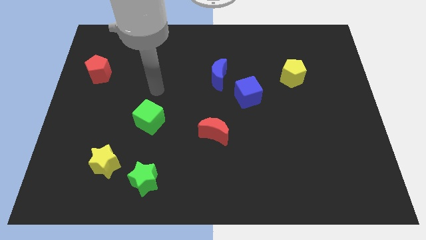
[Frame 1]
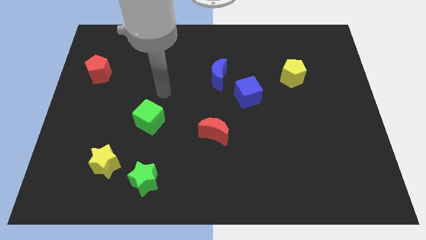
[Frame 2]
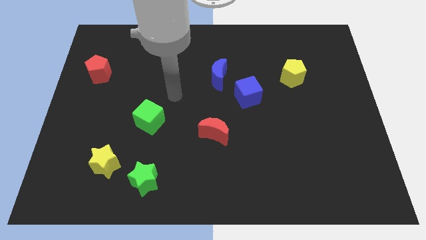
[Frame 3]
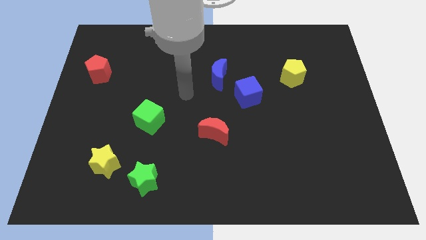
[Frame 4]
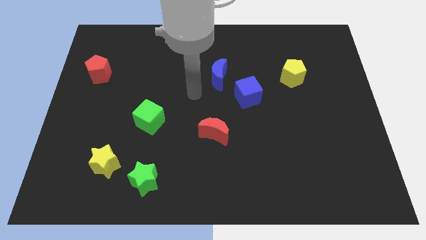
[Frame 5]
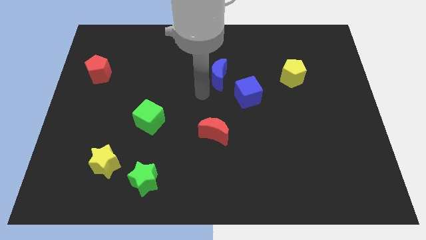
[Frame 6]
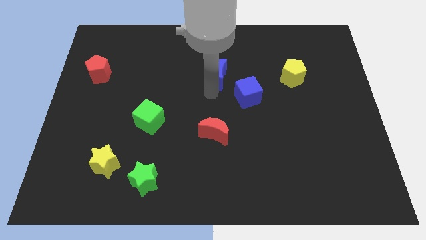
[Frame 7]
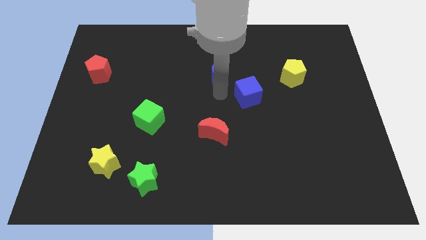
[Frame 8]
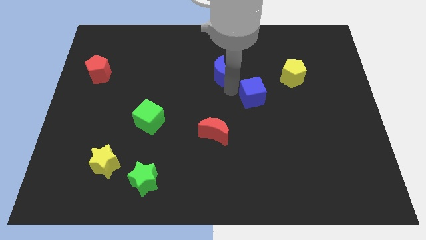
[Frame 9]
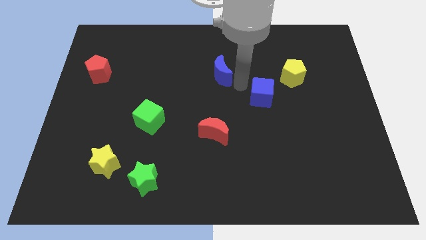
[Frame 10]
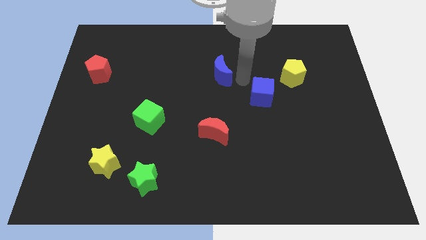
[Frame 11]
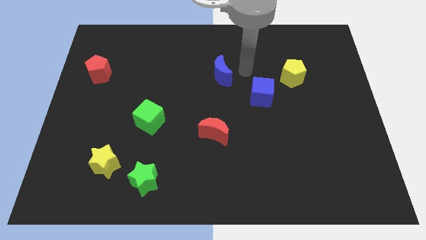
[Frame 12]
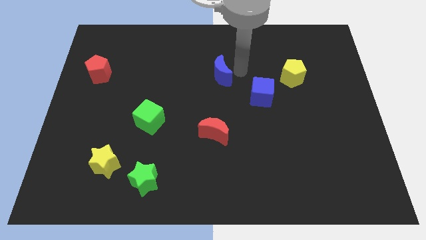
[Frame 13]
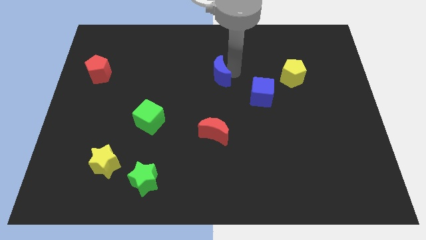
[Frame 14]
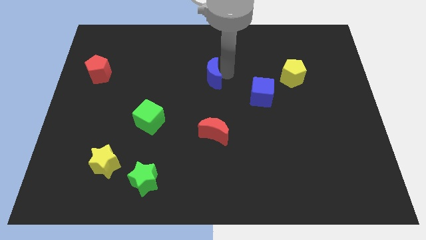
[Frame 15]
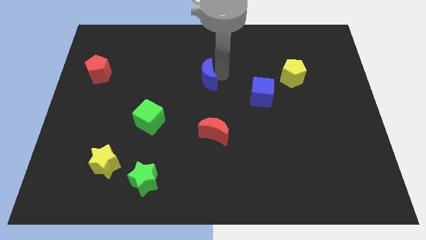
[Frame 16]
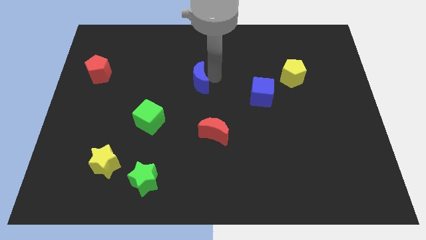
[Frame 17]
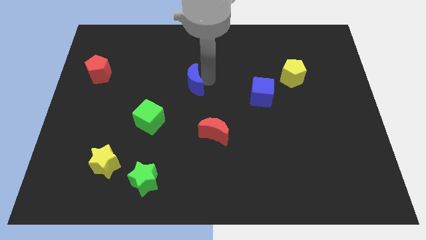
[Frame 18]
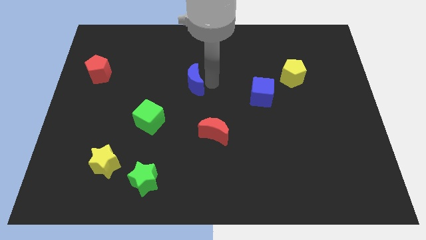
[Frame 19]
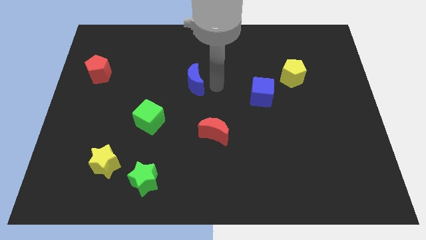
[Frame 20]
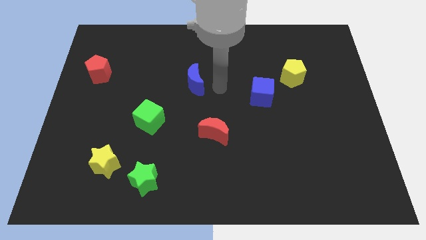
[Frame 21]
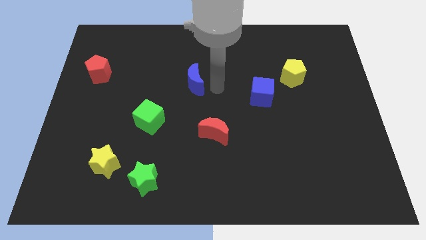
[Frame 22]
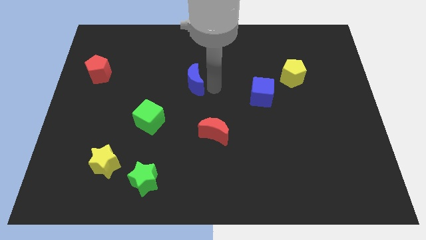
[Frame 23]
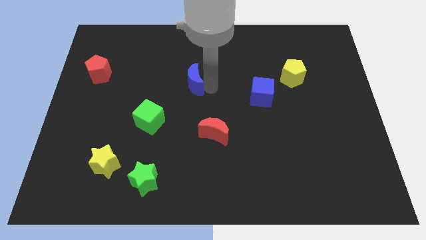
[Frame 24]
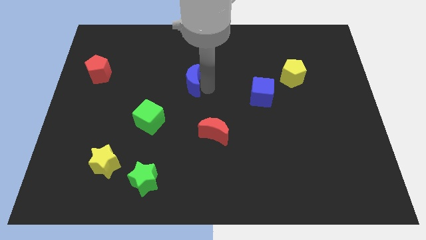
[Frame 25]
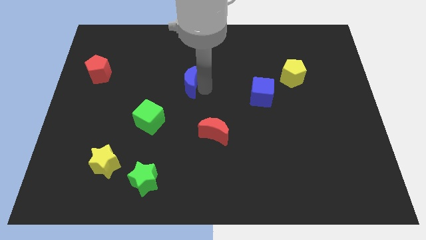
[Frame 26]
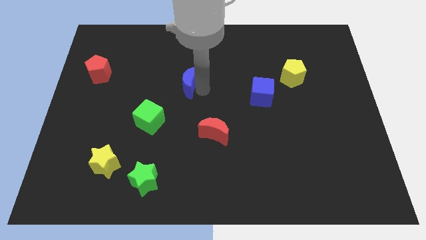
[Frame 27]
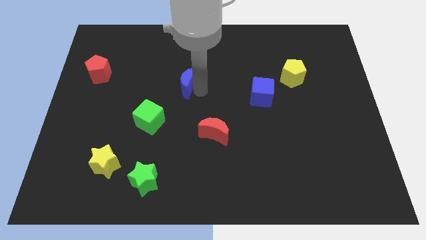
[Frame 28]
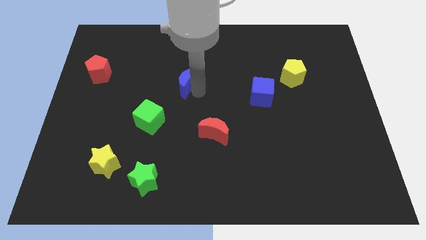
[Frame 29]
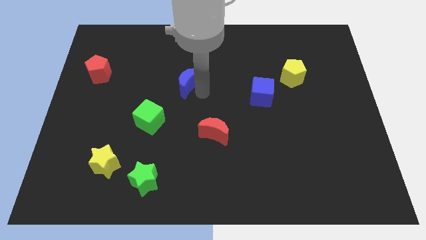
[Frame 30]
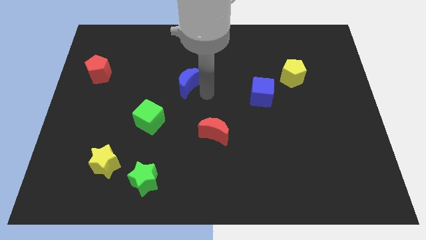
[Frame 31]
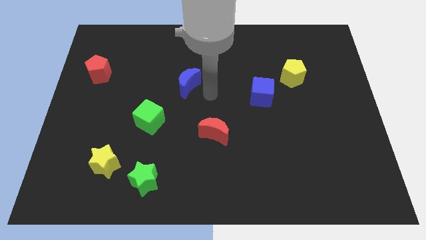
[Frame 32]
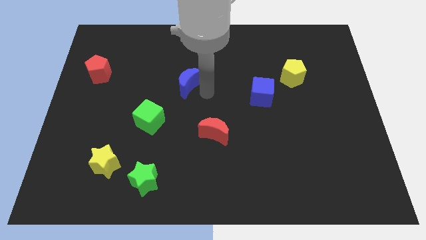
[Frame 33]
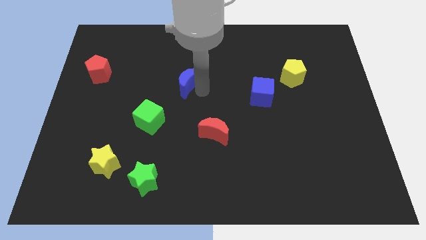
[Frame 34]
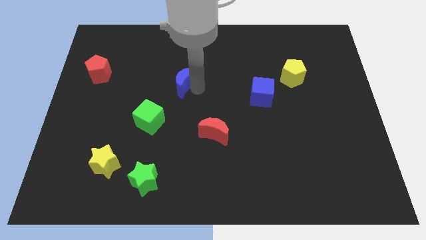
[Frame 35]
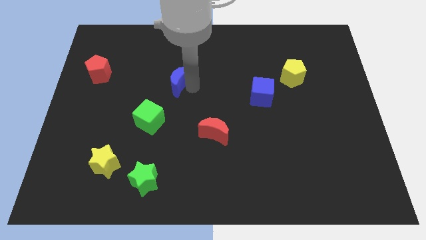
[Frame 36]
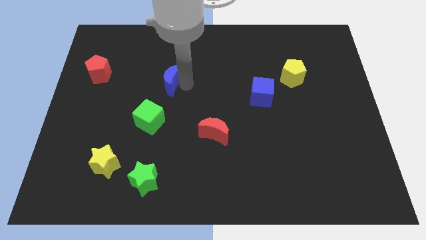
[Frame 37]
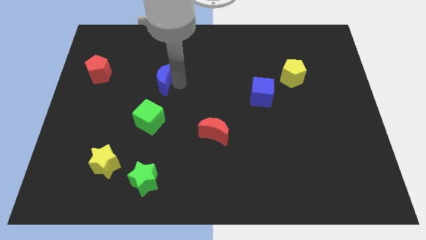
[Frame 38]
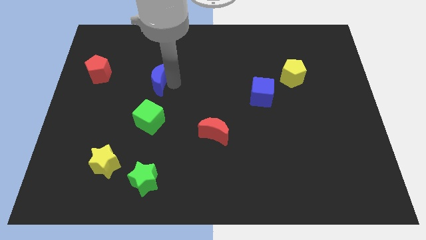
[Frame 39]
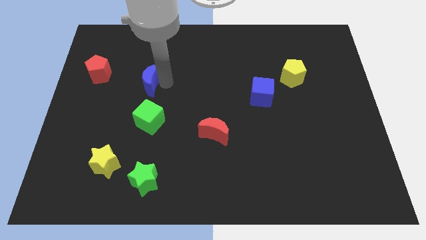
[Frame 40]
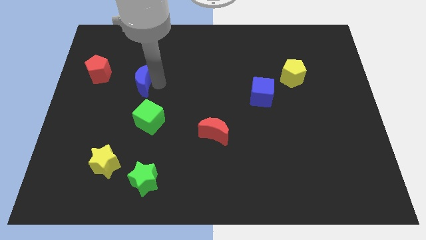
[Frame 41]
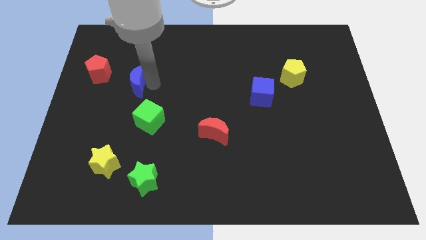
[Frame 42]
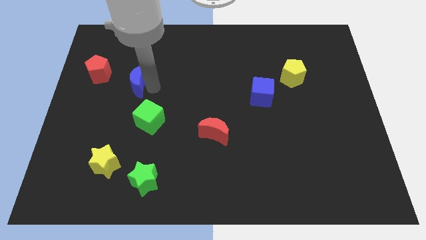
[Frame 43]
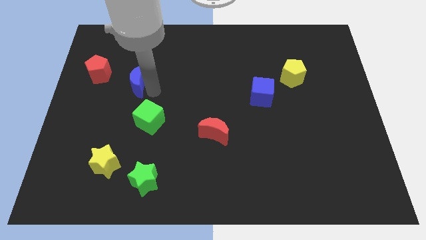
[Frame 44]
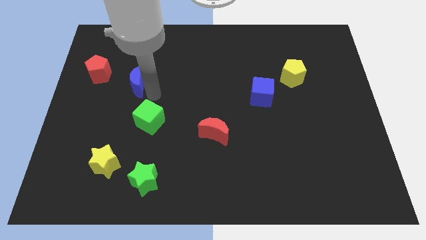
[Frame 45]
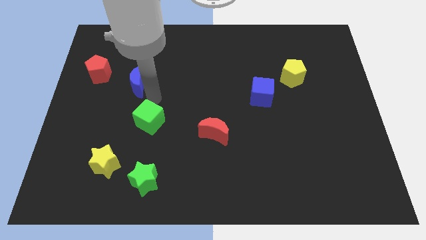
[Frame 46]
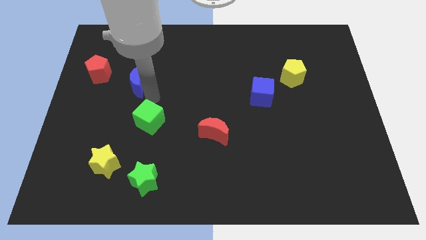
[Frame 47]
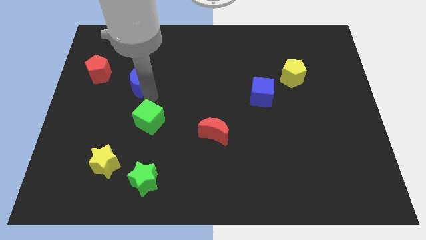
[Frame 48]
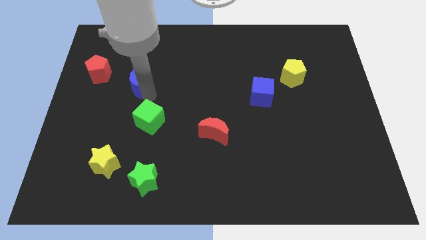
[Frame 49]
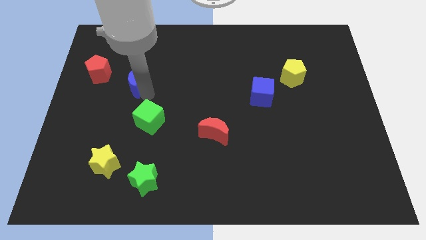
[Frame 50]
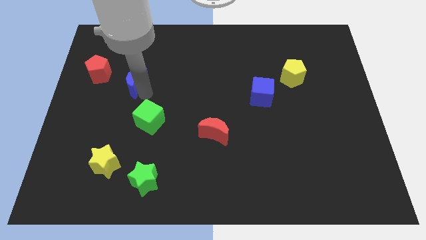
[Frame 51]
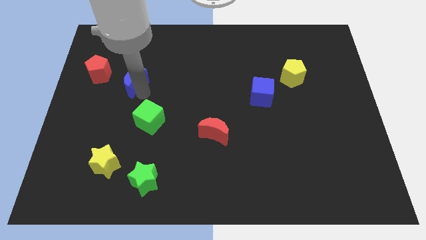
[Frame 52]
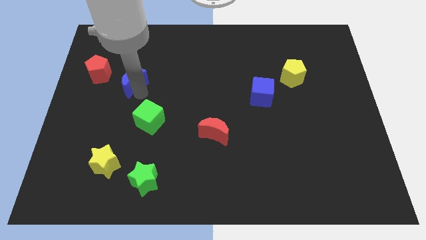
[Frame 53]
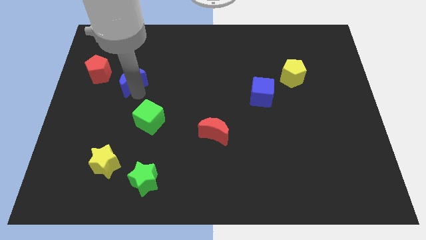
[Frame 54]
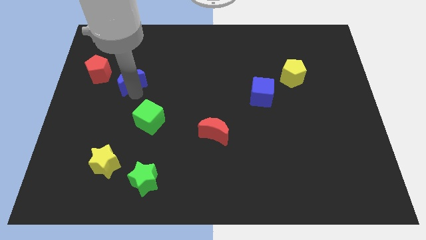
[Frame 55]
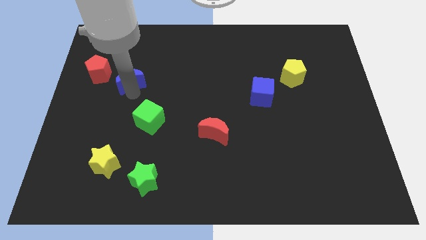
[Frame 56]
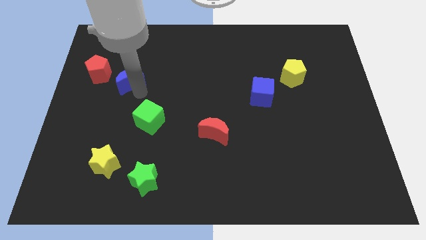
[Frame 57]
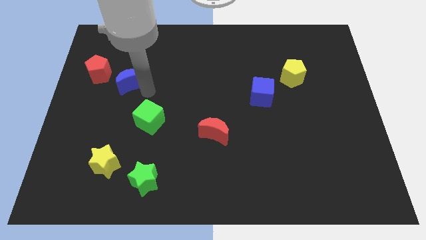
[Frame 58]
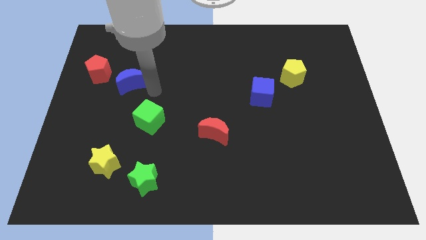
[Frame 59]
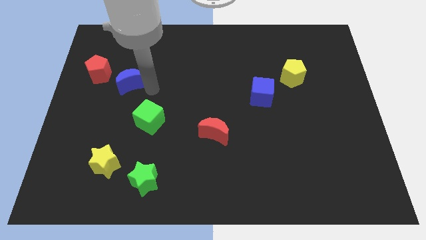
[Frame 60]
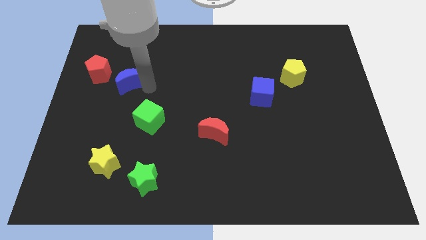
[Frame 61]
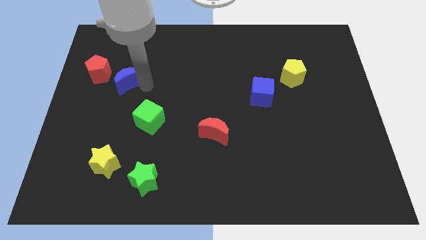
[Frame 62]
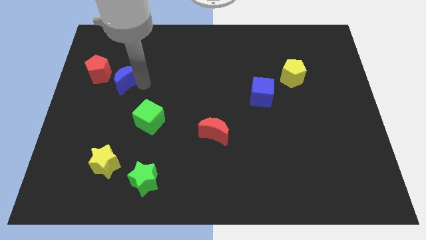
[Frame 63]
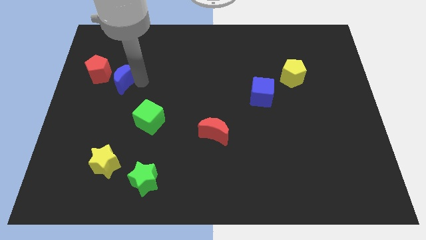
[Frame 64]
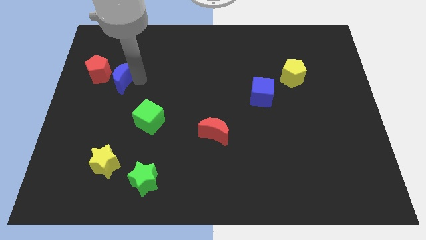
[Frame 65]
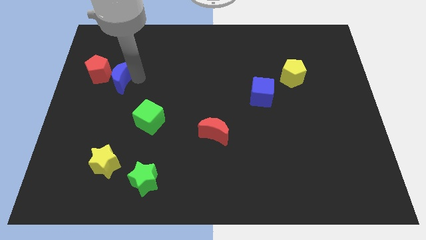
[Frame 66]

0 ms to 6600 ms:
move the blue moon to the red pentagon

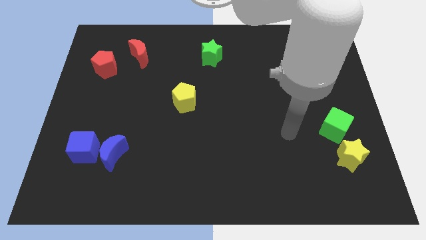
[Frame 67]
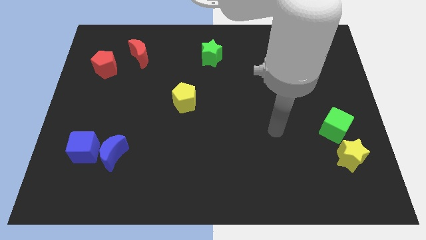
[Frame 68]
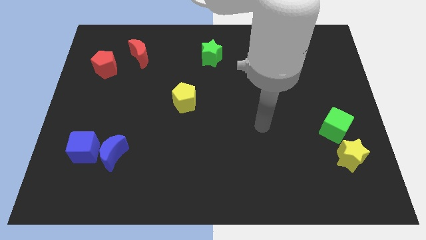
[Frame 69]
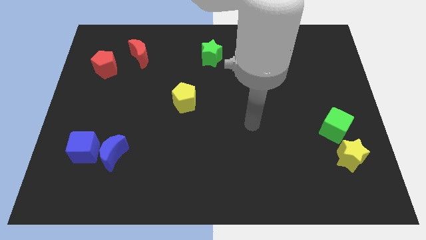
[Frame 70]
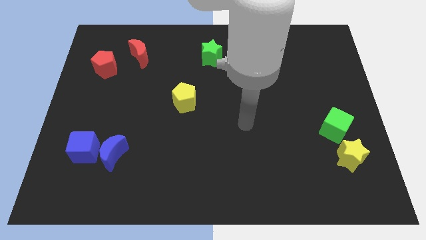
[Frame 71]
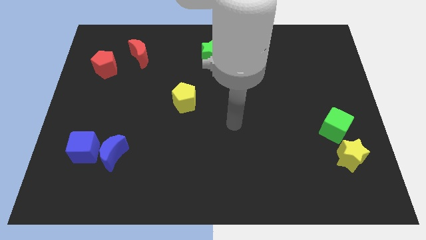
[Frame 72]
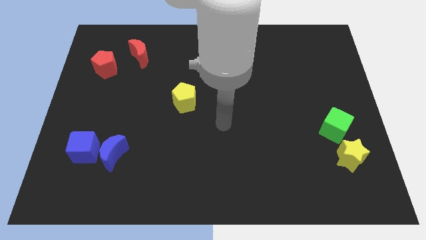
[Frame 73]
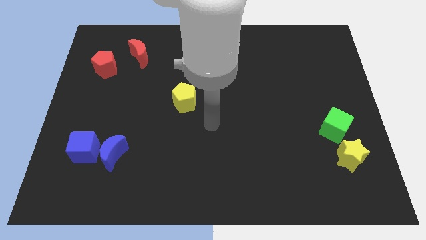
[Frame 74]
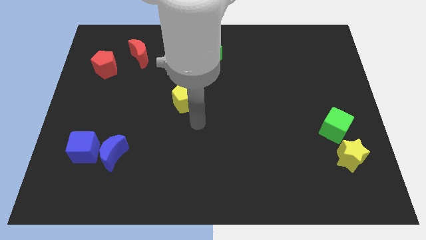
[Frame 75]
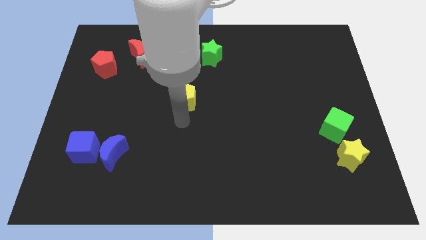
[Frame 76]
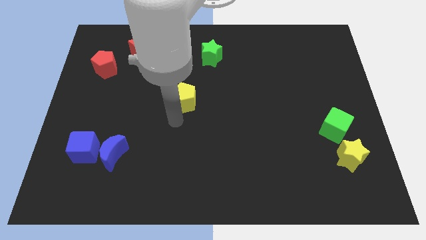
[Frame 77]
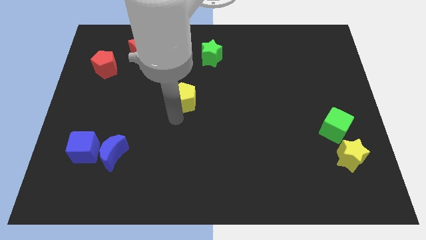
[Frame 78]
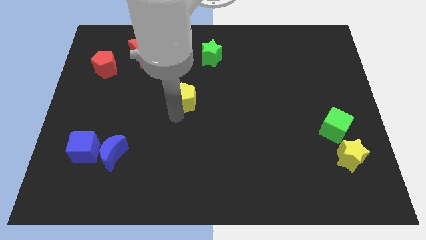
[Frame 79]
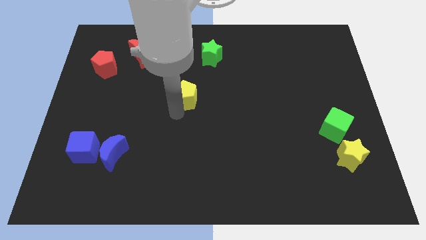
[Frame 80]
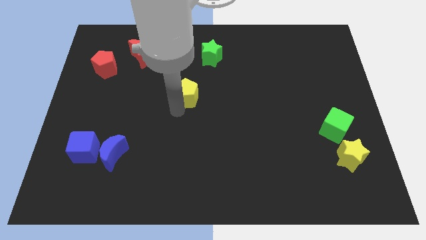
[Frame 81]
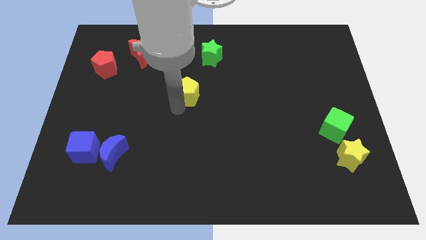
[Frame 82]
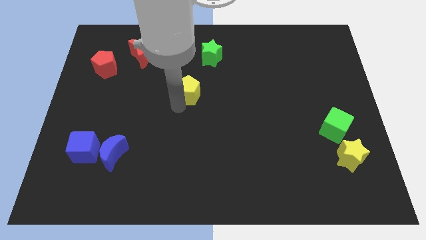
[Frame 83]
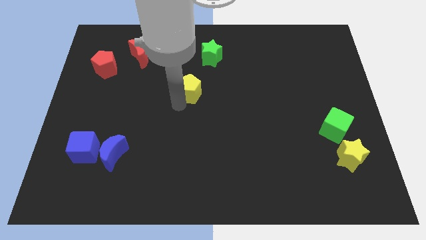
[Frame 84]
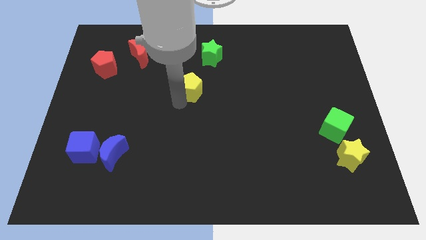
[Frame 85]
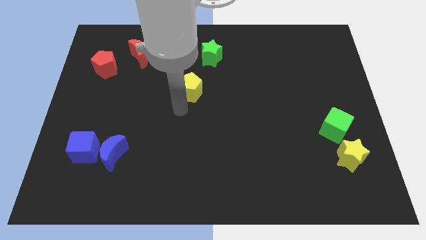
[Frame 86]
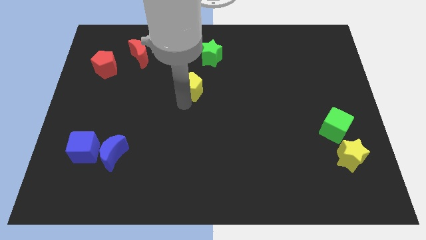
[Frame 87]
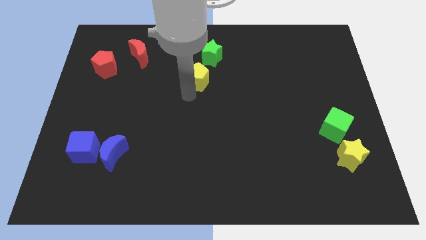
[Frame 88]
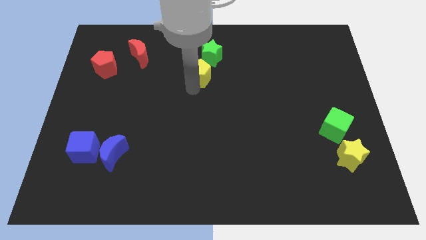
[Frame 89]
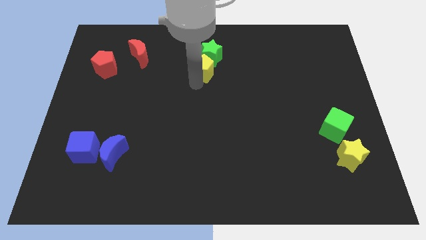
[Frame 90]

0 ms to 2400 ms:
slide the yellow pentagon to the green star
